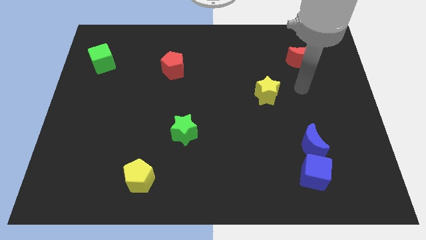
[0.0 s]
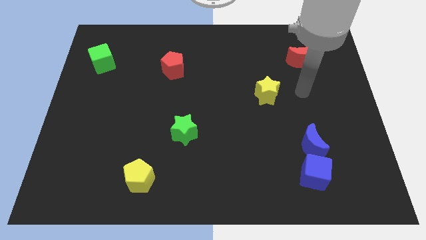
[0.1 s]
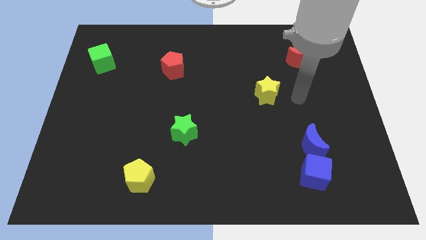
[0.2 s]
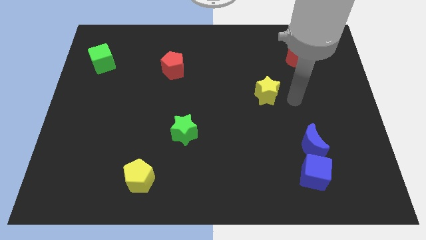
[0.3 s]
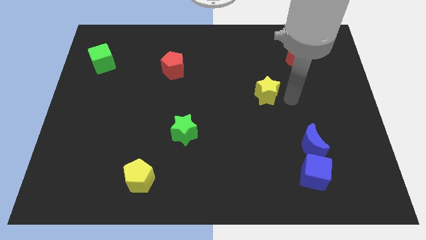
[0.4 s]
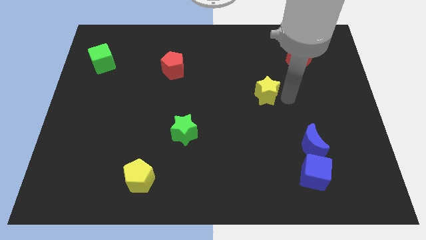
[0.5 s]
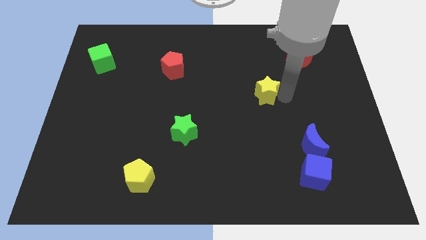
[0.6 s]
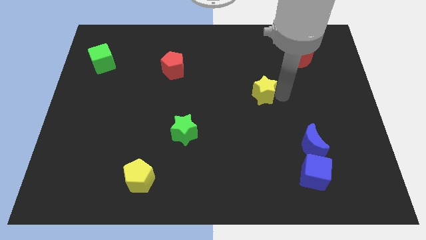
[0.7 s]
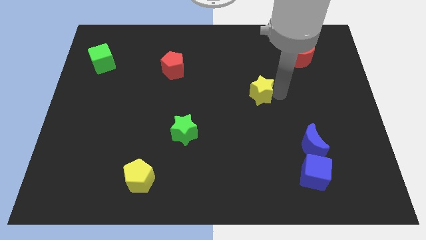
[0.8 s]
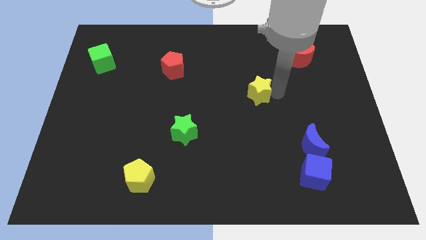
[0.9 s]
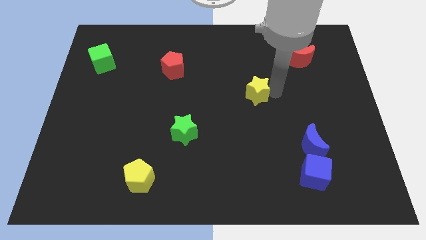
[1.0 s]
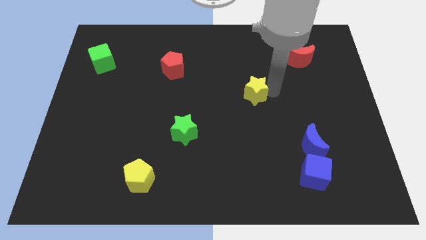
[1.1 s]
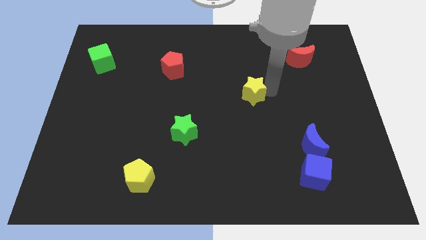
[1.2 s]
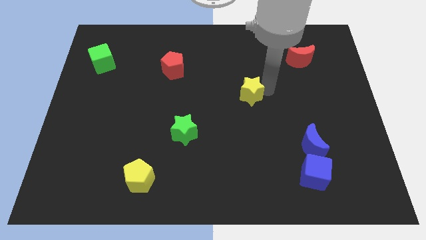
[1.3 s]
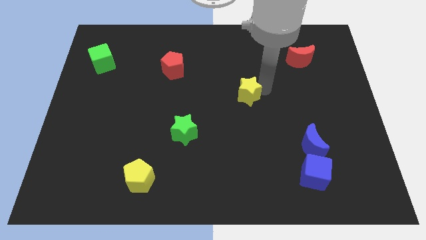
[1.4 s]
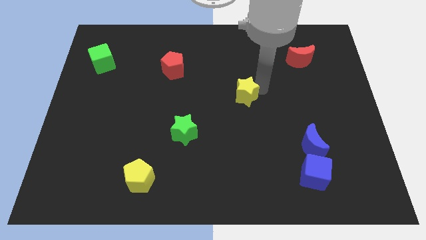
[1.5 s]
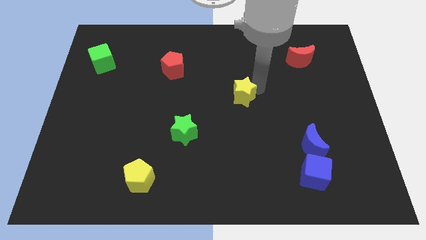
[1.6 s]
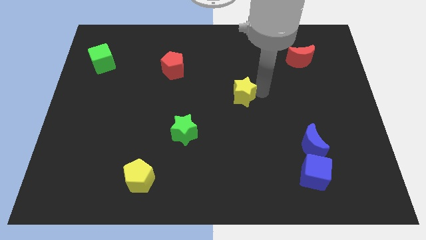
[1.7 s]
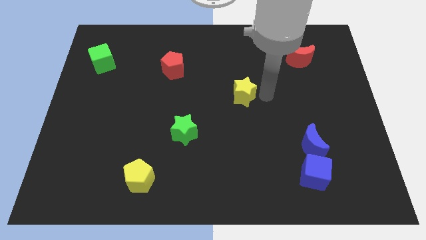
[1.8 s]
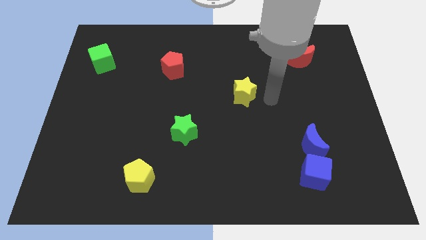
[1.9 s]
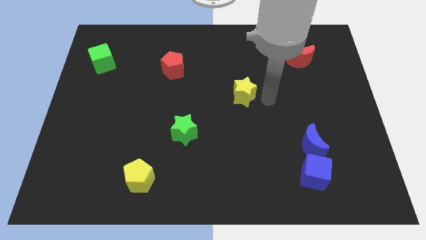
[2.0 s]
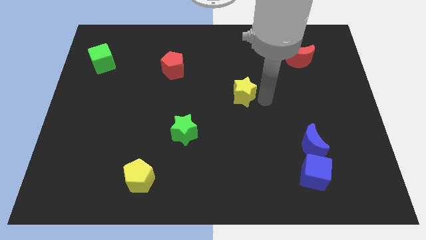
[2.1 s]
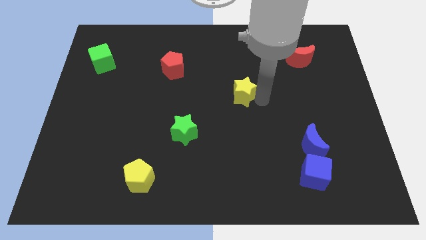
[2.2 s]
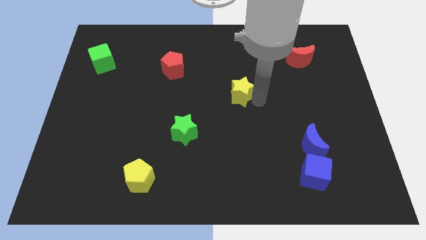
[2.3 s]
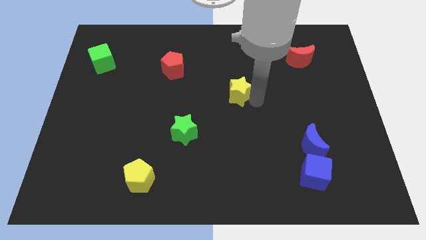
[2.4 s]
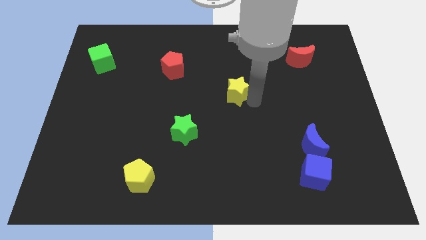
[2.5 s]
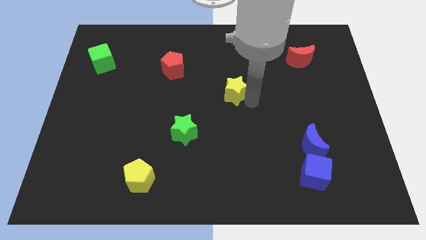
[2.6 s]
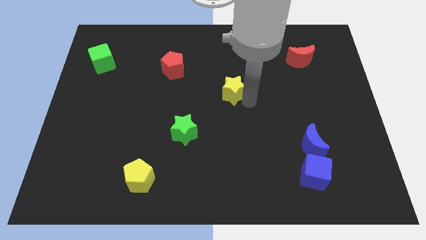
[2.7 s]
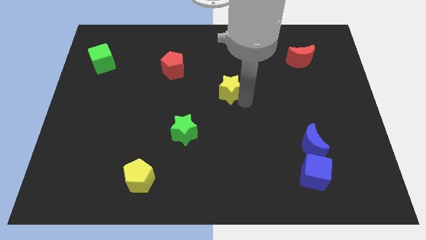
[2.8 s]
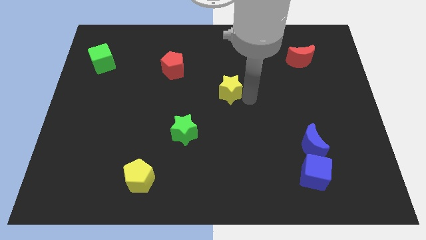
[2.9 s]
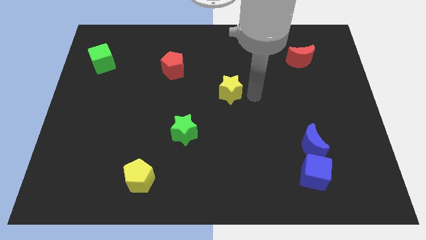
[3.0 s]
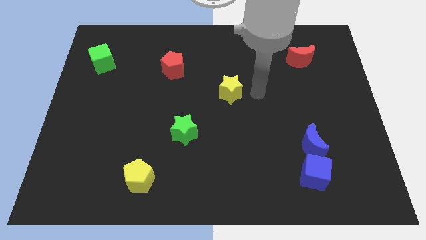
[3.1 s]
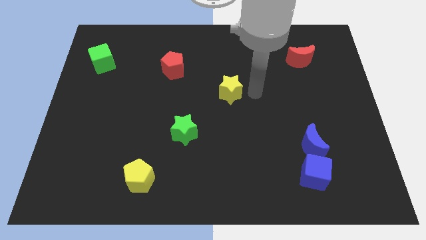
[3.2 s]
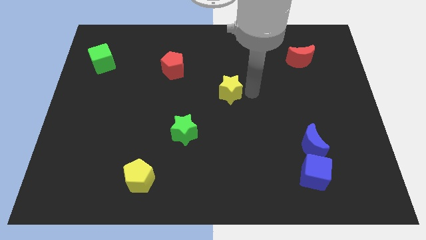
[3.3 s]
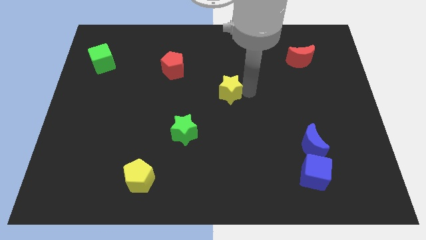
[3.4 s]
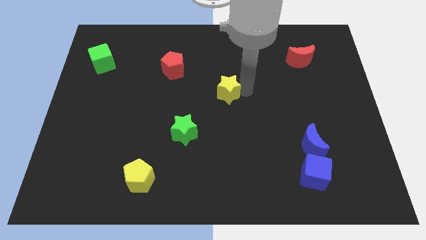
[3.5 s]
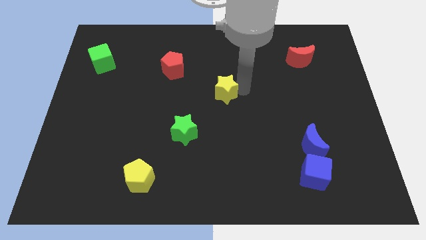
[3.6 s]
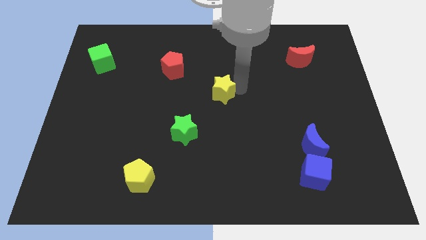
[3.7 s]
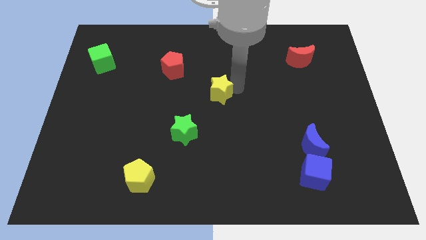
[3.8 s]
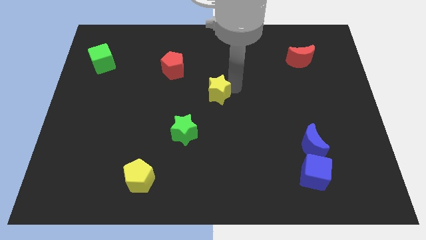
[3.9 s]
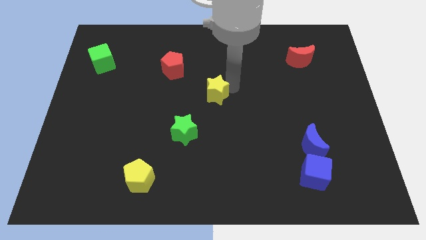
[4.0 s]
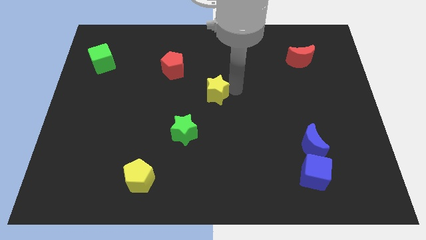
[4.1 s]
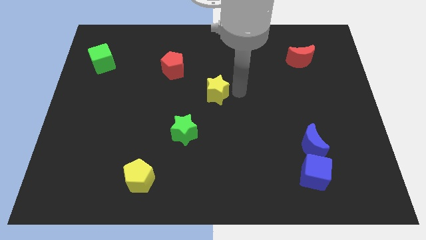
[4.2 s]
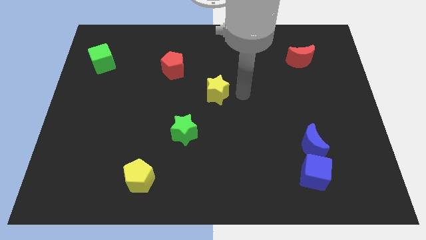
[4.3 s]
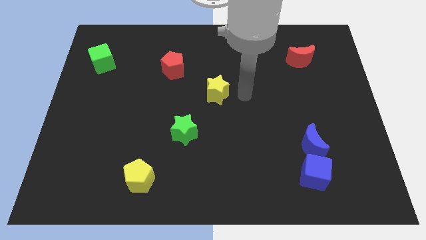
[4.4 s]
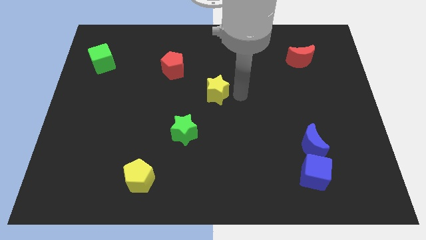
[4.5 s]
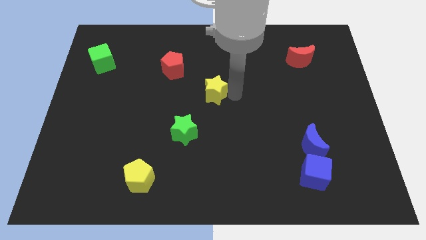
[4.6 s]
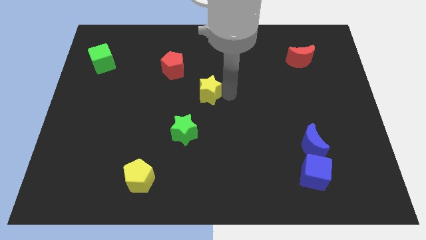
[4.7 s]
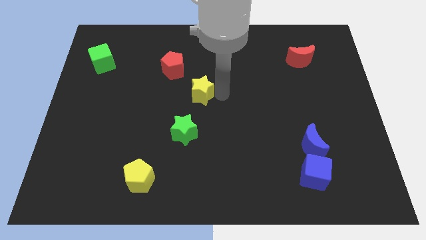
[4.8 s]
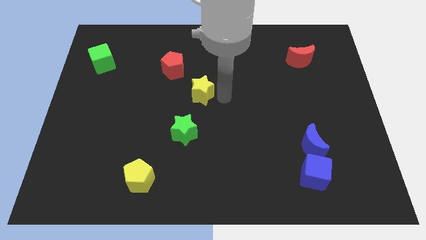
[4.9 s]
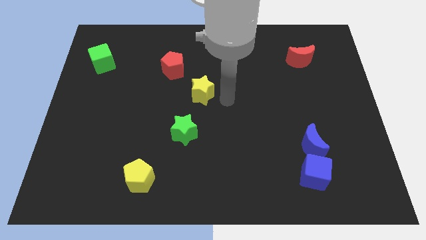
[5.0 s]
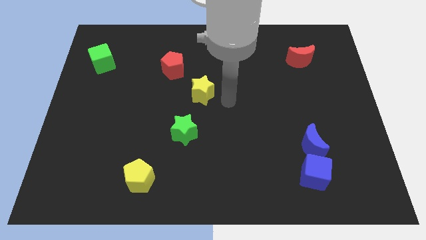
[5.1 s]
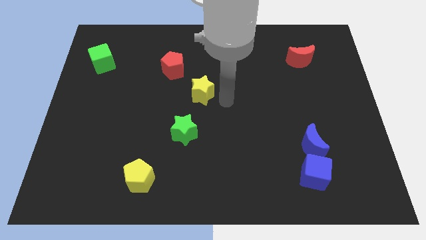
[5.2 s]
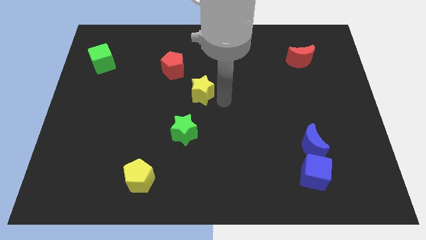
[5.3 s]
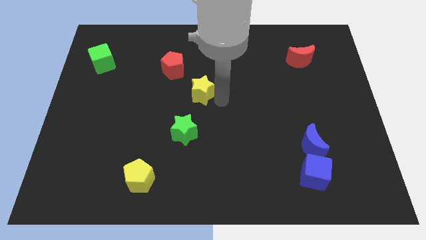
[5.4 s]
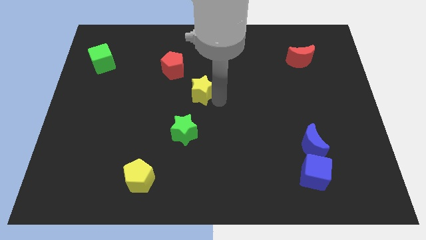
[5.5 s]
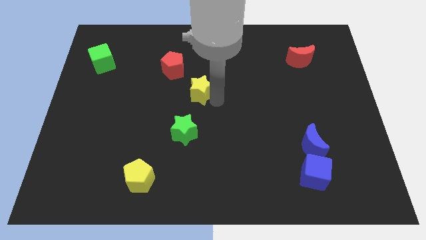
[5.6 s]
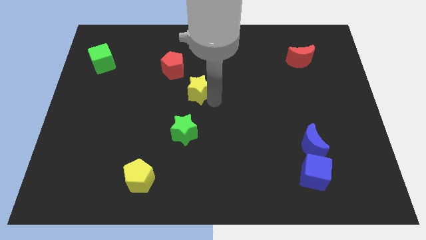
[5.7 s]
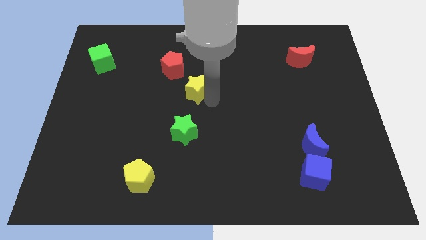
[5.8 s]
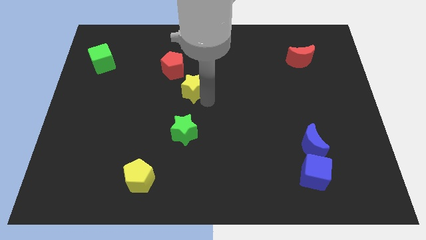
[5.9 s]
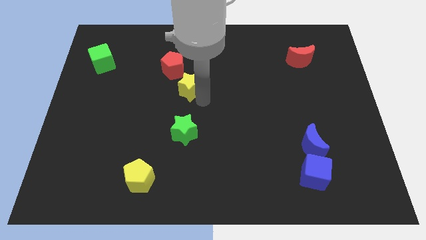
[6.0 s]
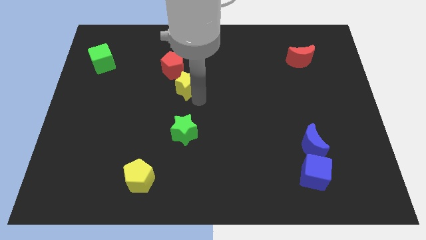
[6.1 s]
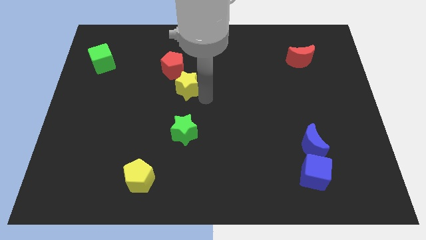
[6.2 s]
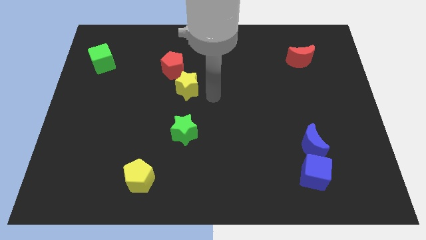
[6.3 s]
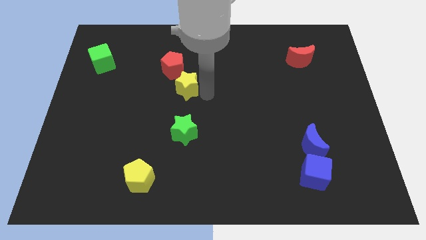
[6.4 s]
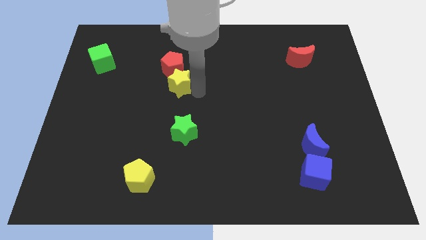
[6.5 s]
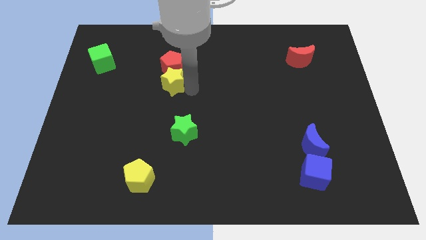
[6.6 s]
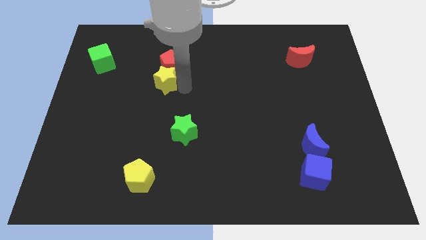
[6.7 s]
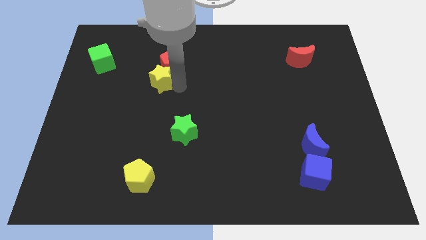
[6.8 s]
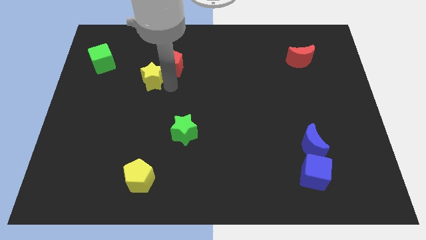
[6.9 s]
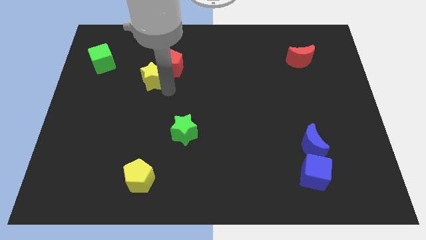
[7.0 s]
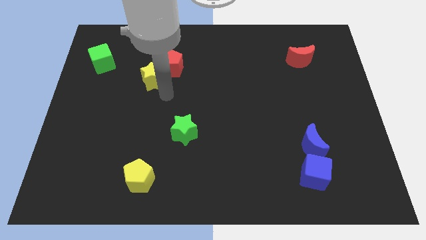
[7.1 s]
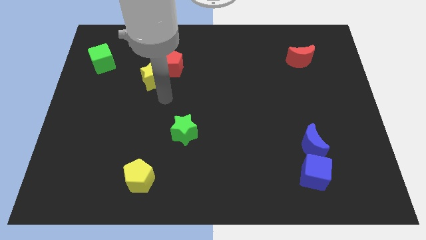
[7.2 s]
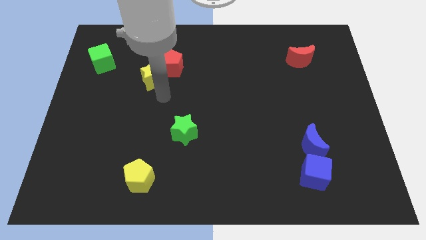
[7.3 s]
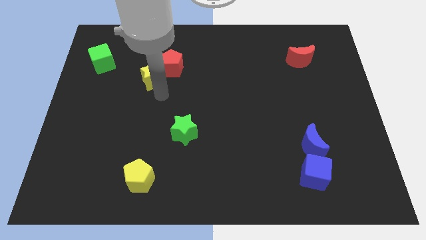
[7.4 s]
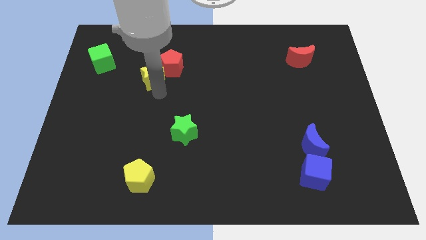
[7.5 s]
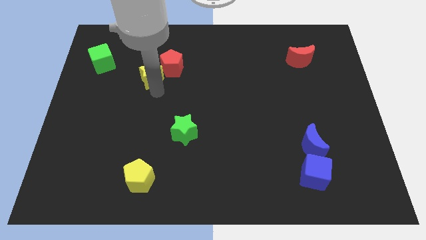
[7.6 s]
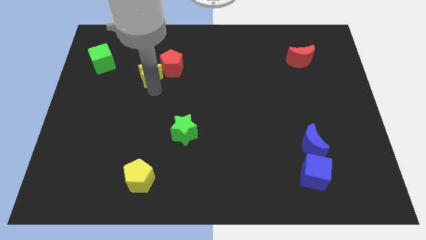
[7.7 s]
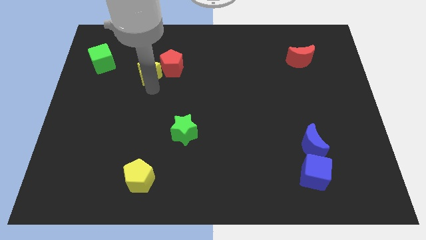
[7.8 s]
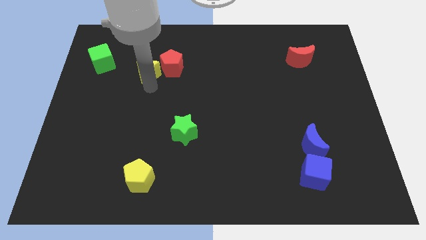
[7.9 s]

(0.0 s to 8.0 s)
push the yellow star just right of the green cube

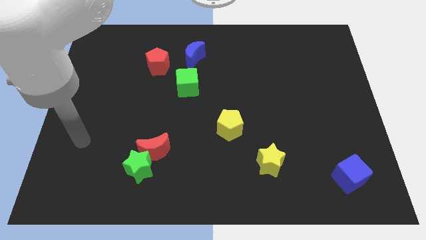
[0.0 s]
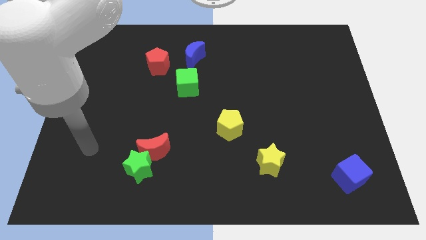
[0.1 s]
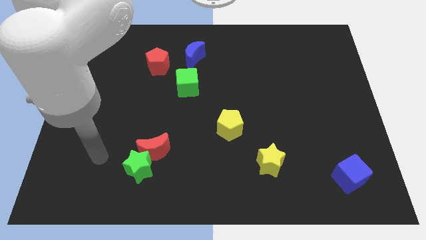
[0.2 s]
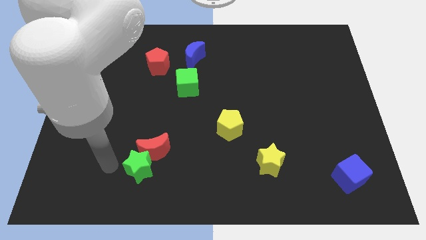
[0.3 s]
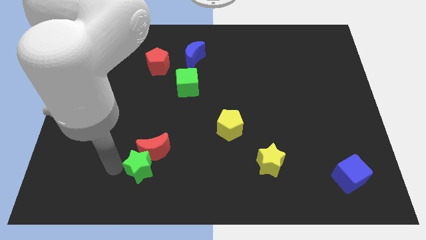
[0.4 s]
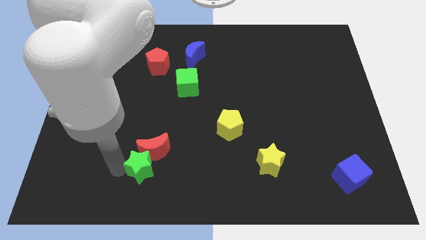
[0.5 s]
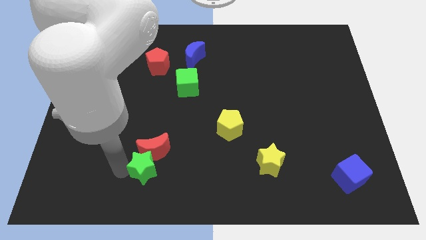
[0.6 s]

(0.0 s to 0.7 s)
push the green star to the bottom right side of the red moon
